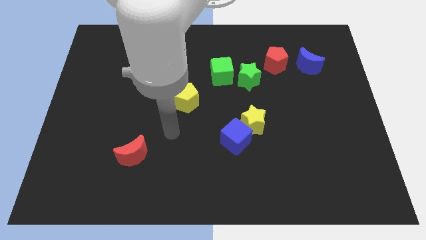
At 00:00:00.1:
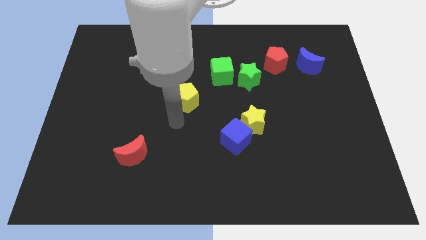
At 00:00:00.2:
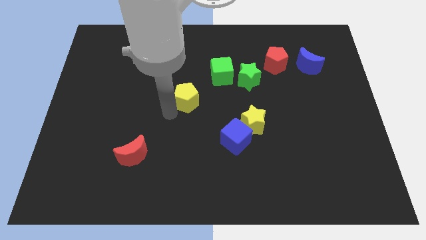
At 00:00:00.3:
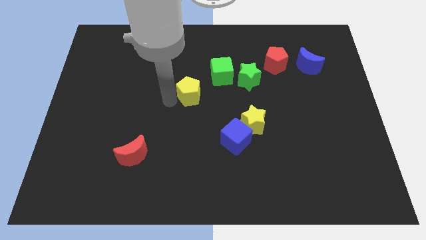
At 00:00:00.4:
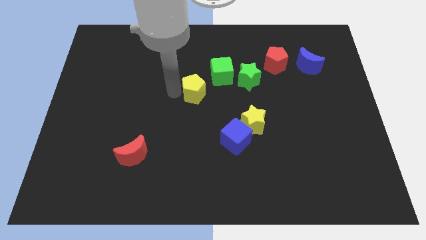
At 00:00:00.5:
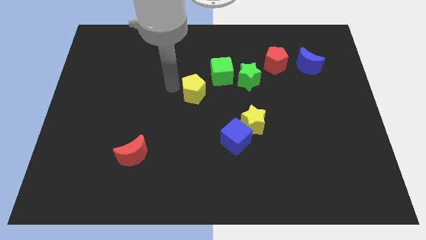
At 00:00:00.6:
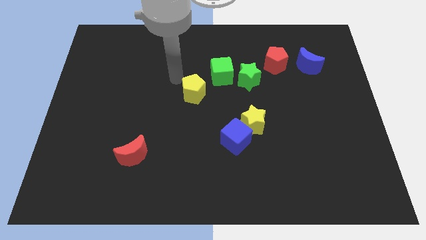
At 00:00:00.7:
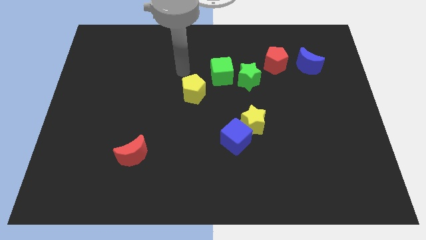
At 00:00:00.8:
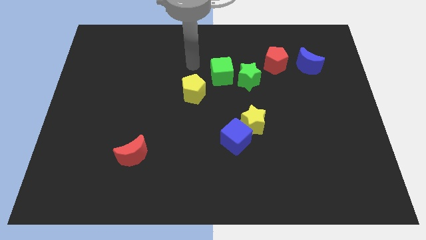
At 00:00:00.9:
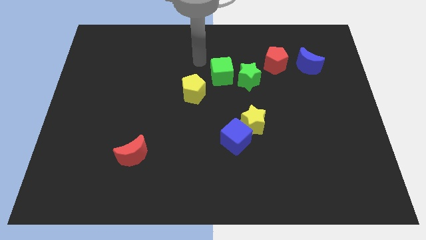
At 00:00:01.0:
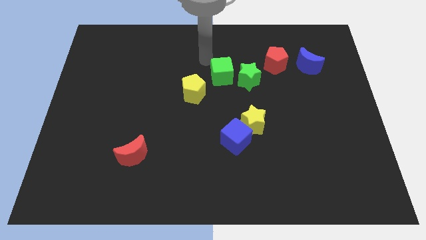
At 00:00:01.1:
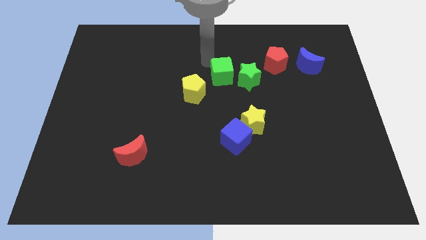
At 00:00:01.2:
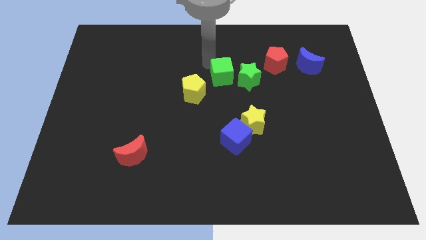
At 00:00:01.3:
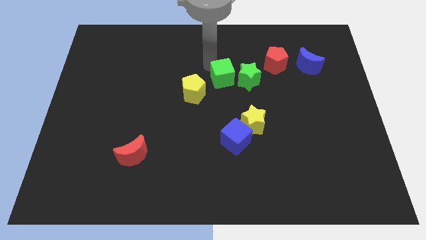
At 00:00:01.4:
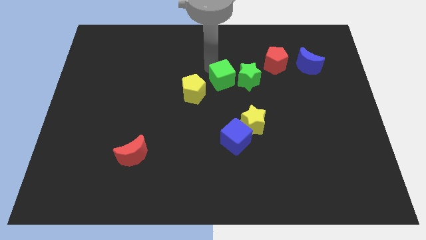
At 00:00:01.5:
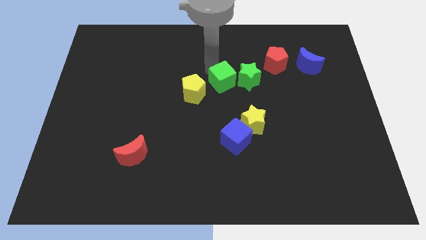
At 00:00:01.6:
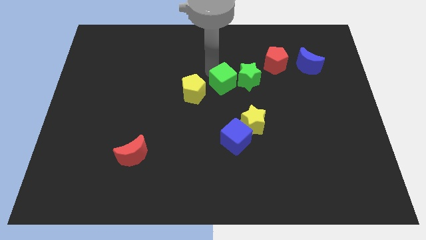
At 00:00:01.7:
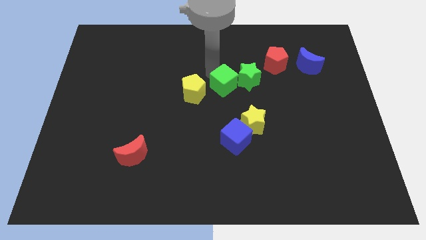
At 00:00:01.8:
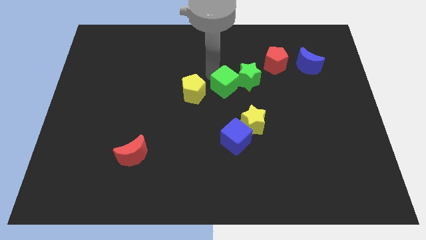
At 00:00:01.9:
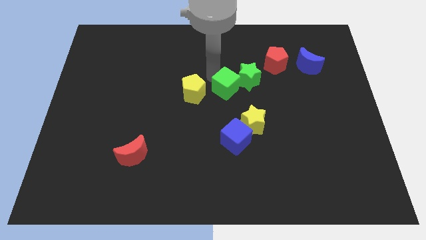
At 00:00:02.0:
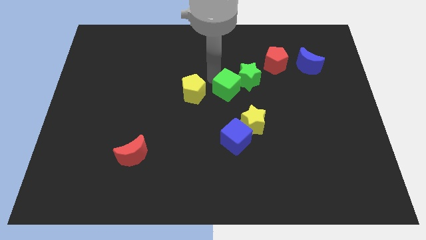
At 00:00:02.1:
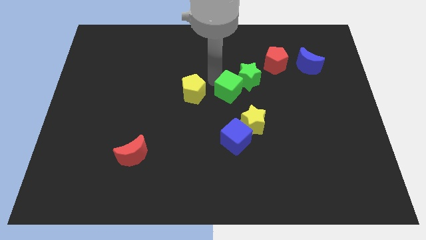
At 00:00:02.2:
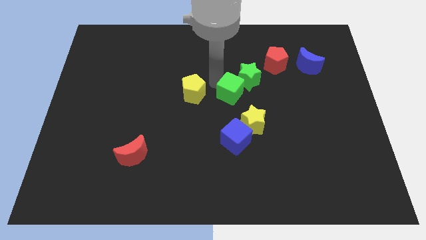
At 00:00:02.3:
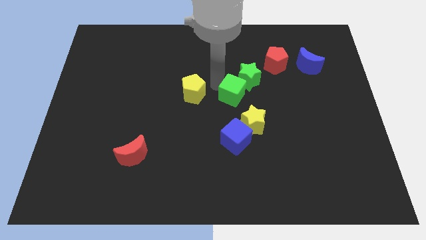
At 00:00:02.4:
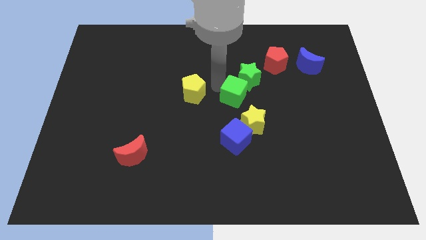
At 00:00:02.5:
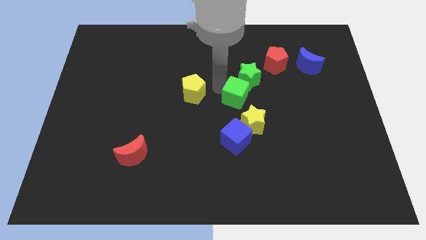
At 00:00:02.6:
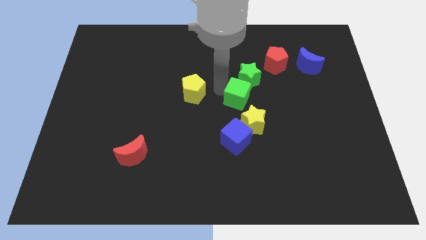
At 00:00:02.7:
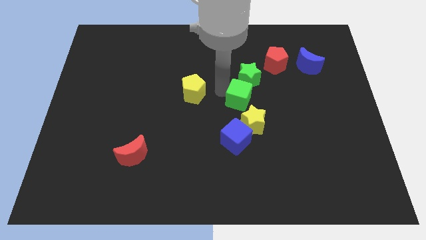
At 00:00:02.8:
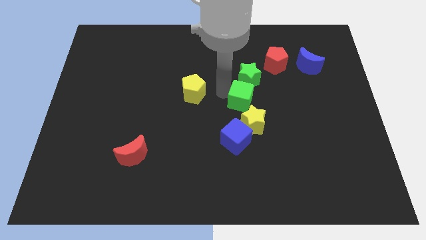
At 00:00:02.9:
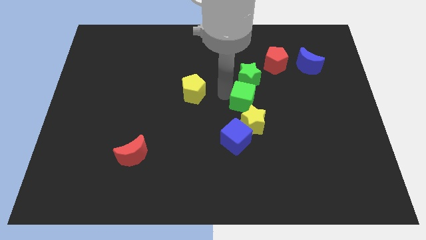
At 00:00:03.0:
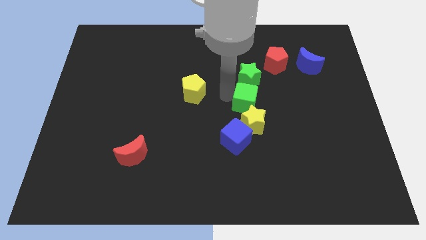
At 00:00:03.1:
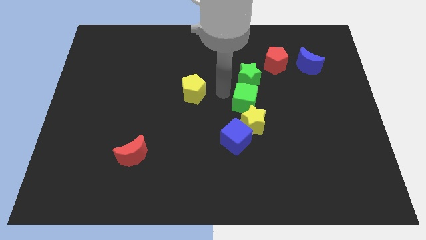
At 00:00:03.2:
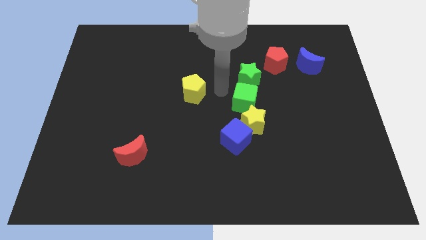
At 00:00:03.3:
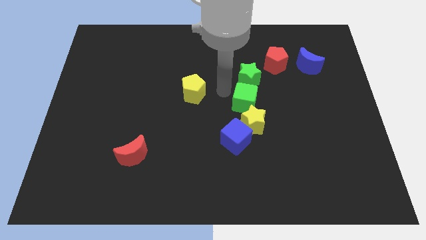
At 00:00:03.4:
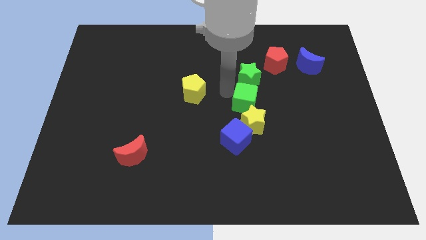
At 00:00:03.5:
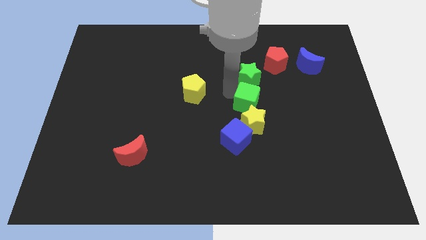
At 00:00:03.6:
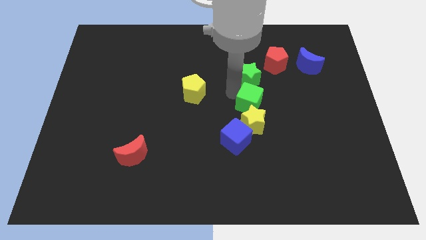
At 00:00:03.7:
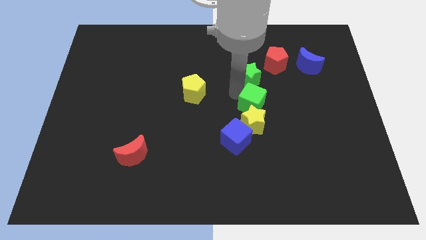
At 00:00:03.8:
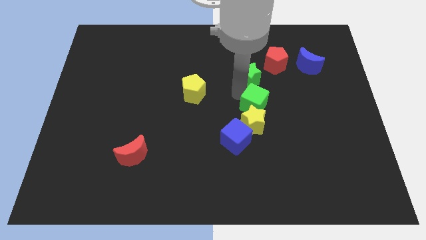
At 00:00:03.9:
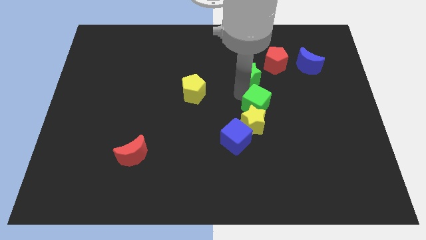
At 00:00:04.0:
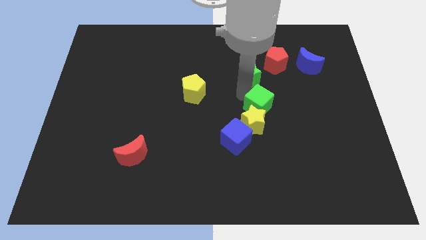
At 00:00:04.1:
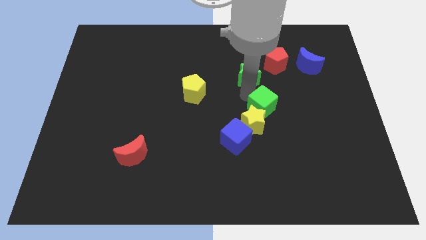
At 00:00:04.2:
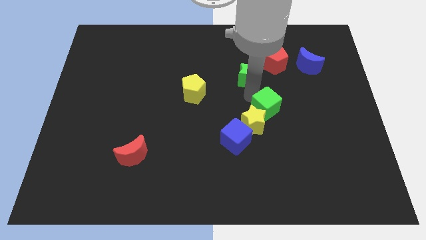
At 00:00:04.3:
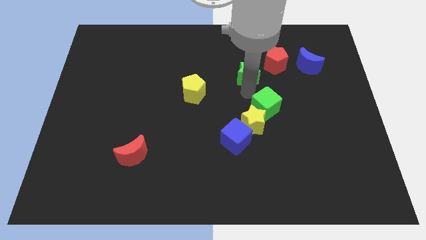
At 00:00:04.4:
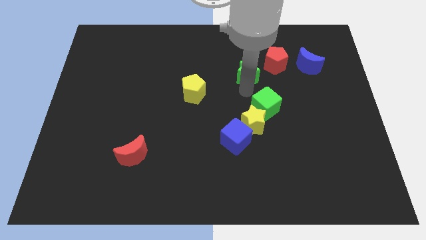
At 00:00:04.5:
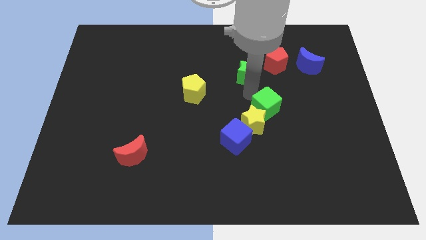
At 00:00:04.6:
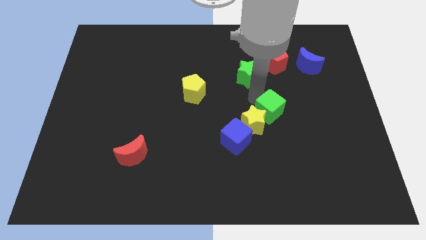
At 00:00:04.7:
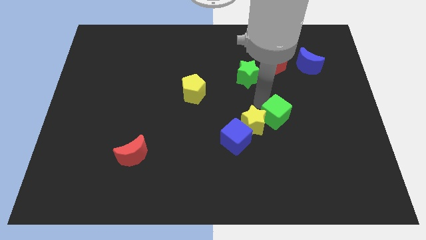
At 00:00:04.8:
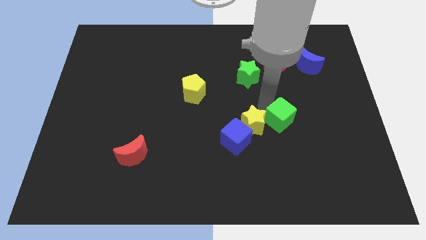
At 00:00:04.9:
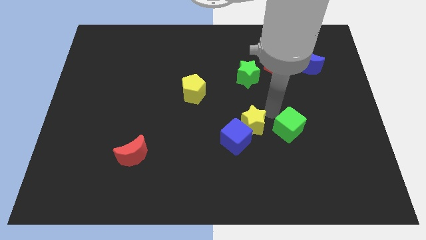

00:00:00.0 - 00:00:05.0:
slide the green cube down and to the right

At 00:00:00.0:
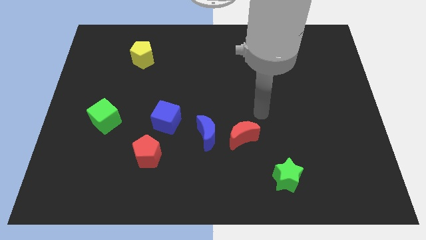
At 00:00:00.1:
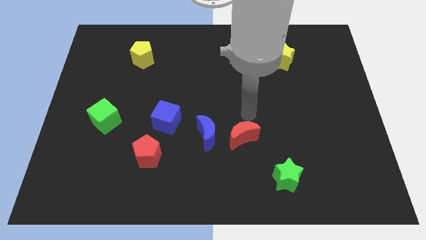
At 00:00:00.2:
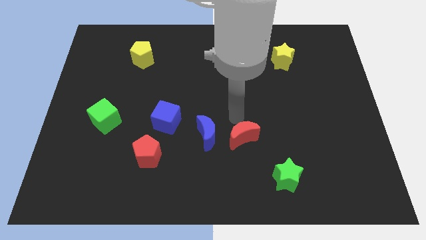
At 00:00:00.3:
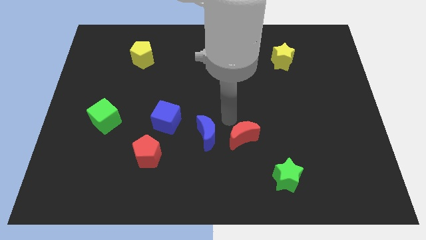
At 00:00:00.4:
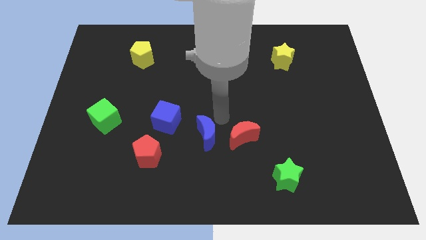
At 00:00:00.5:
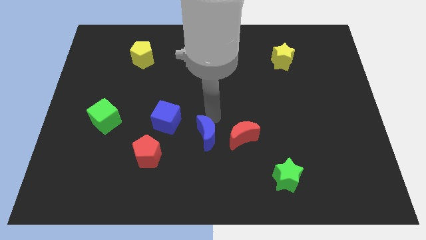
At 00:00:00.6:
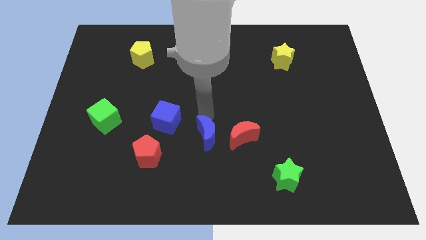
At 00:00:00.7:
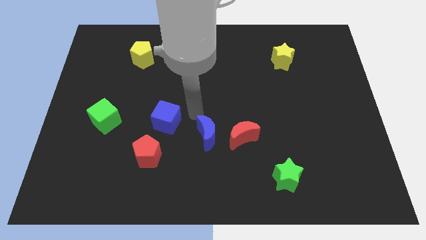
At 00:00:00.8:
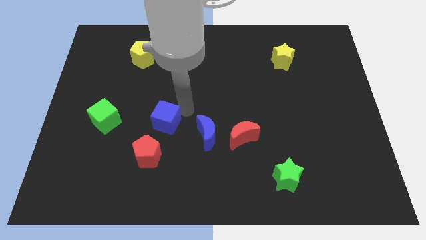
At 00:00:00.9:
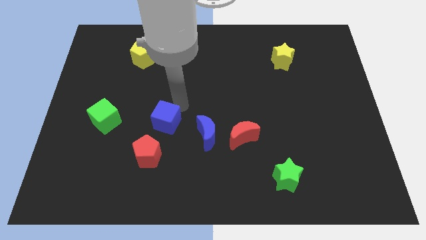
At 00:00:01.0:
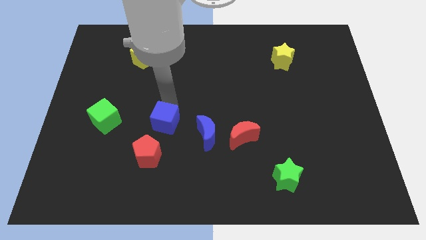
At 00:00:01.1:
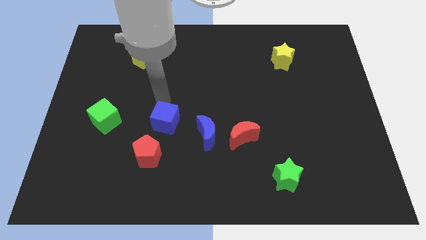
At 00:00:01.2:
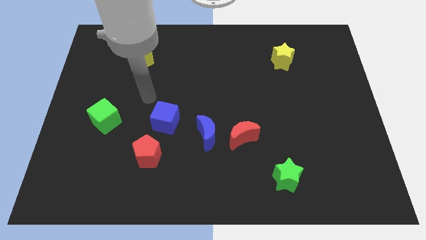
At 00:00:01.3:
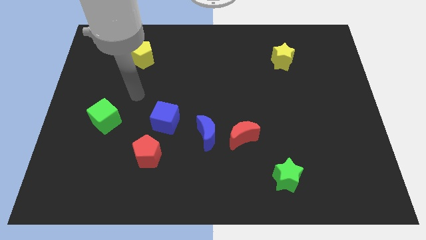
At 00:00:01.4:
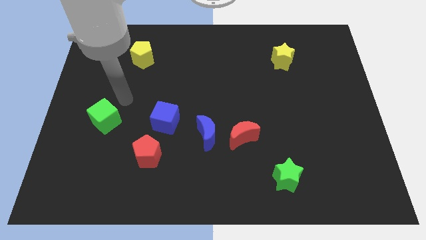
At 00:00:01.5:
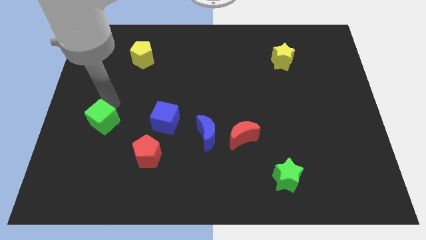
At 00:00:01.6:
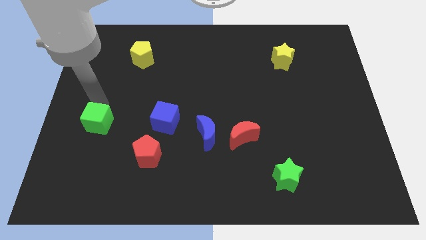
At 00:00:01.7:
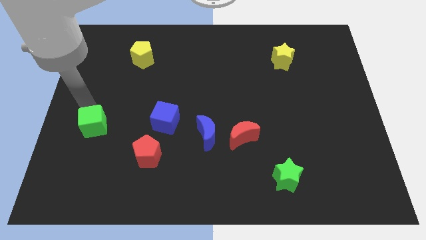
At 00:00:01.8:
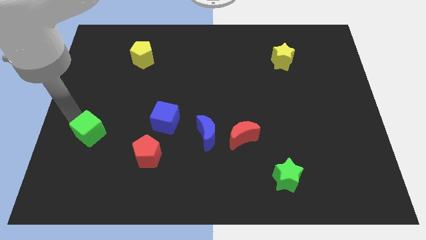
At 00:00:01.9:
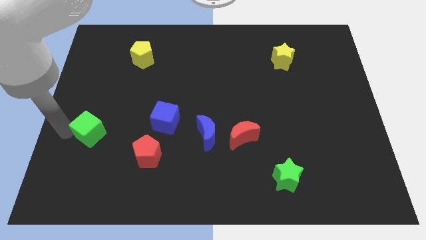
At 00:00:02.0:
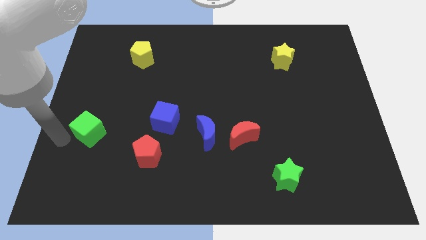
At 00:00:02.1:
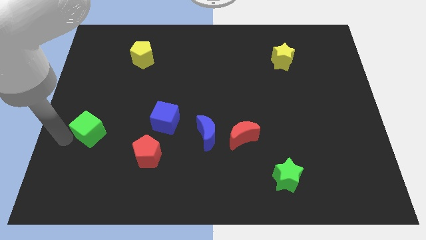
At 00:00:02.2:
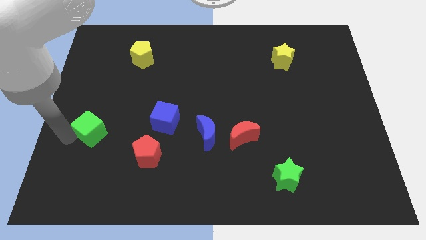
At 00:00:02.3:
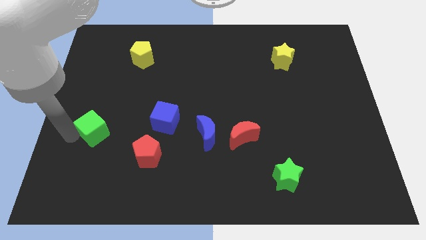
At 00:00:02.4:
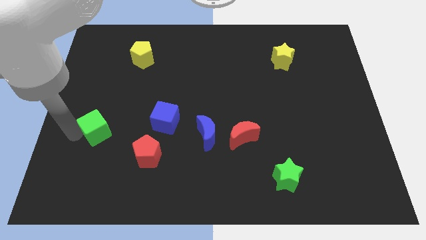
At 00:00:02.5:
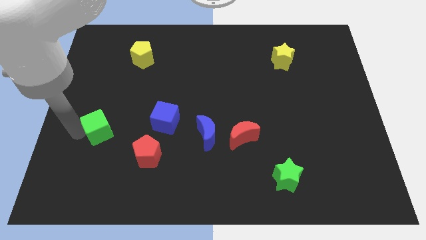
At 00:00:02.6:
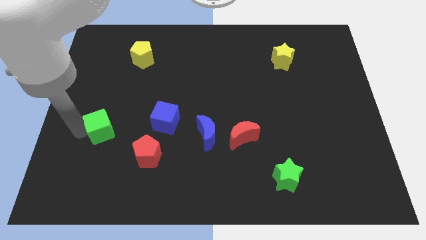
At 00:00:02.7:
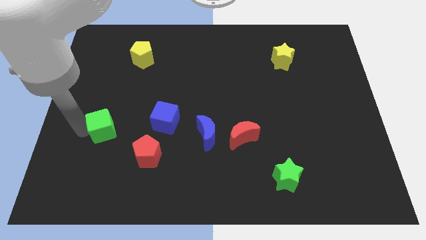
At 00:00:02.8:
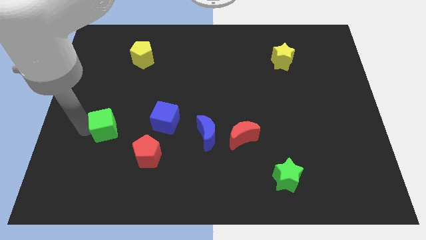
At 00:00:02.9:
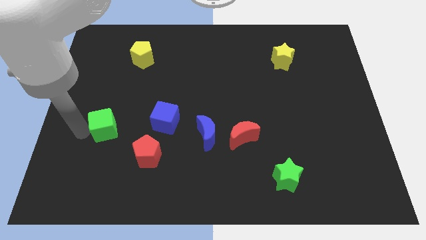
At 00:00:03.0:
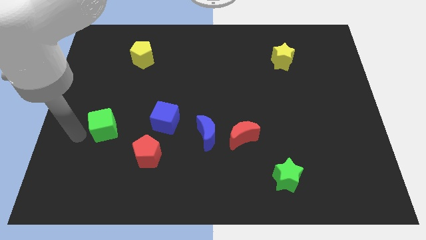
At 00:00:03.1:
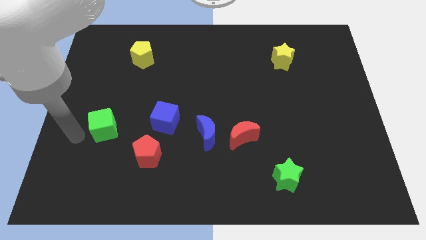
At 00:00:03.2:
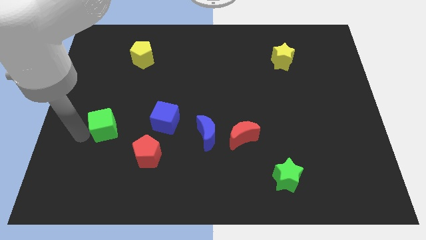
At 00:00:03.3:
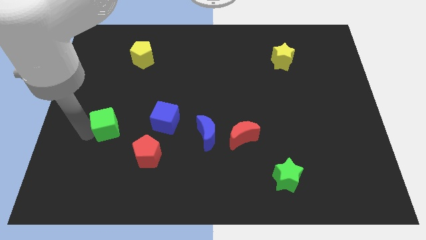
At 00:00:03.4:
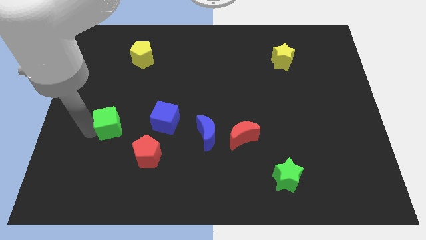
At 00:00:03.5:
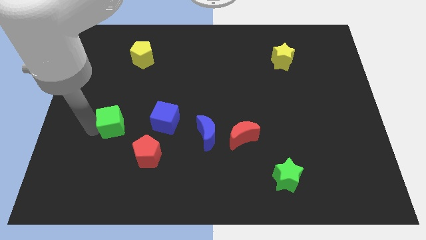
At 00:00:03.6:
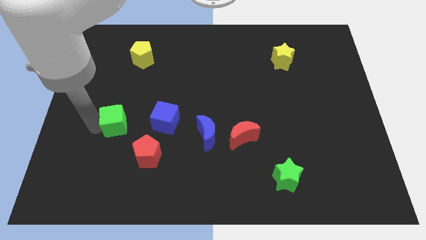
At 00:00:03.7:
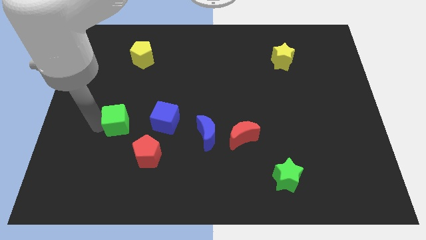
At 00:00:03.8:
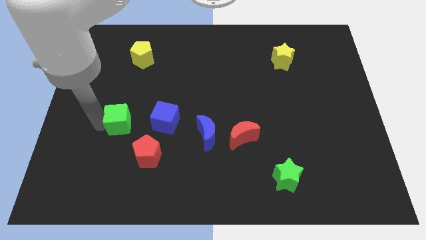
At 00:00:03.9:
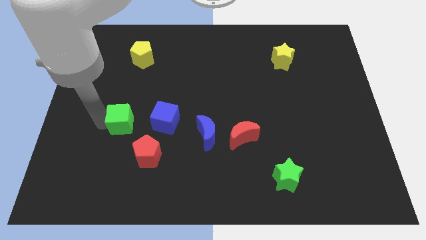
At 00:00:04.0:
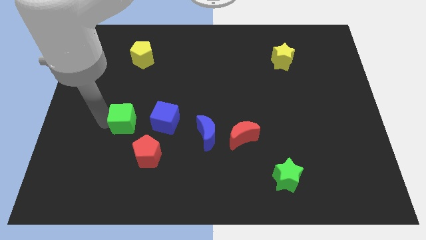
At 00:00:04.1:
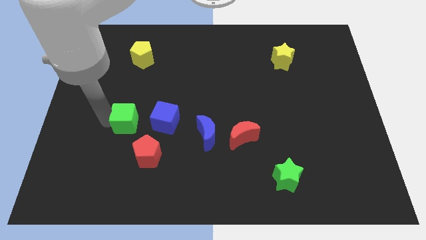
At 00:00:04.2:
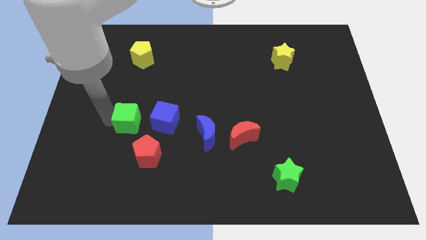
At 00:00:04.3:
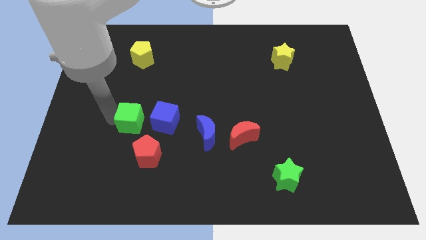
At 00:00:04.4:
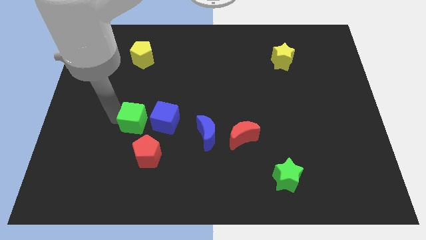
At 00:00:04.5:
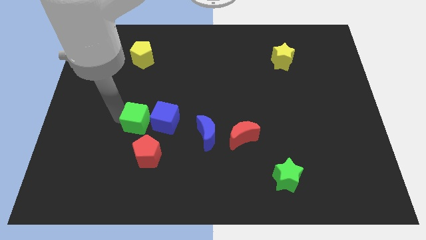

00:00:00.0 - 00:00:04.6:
move the green cube somewhat to the right
